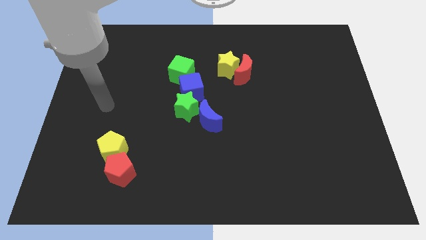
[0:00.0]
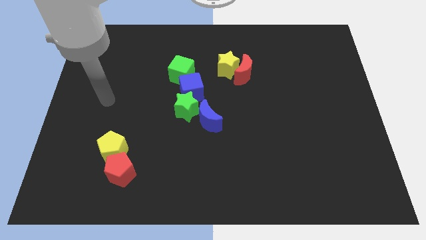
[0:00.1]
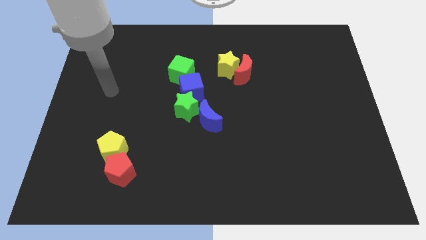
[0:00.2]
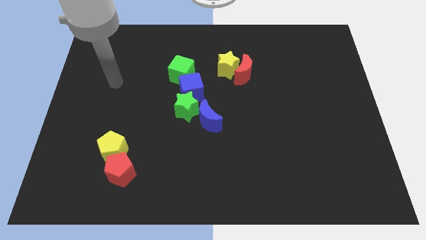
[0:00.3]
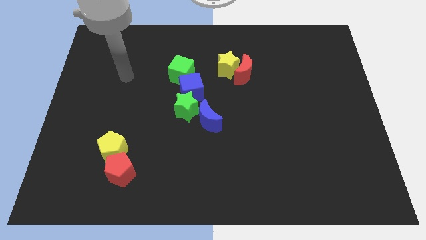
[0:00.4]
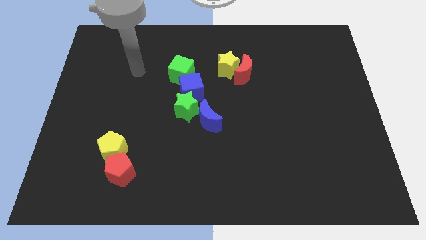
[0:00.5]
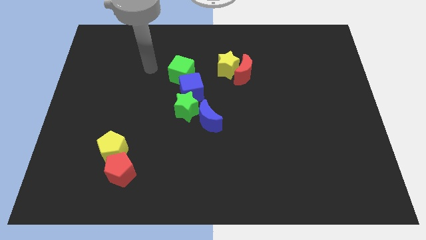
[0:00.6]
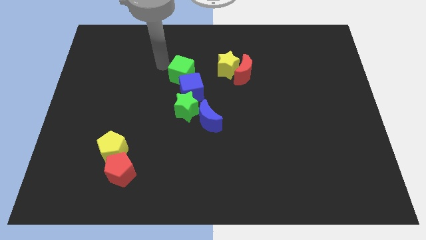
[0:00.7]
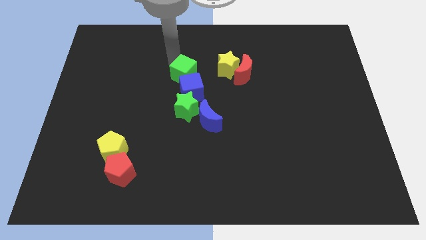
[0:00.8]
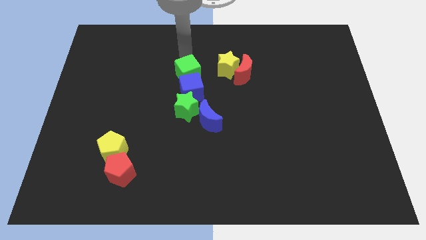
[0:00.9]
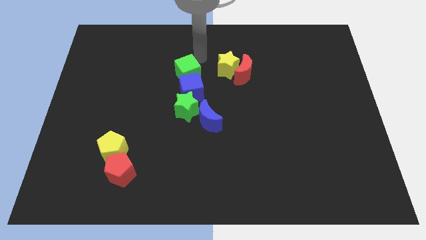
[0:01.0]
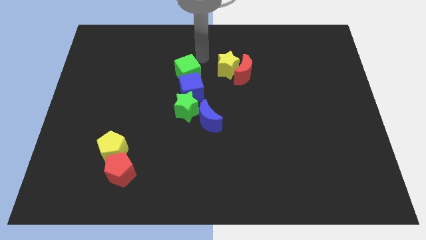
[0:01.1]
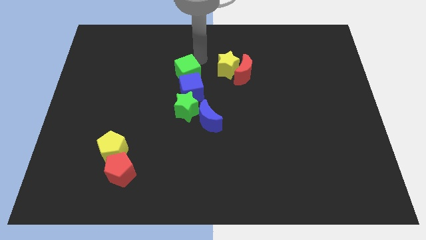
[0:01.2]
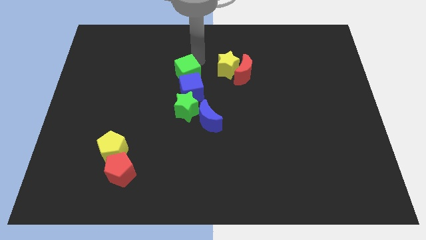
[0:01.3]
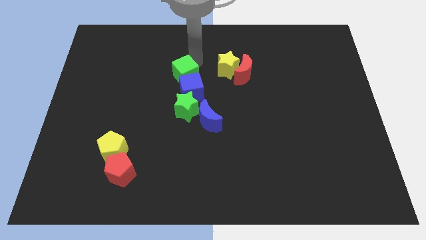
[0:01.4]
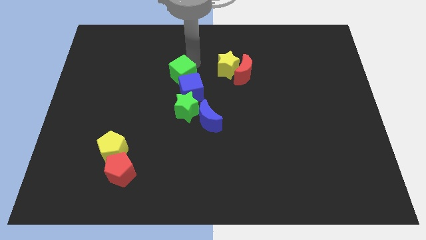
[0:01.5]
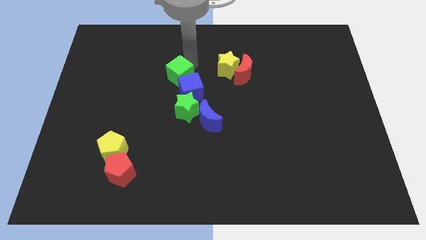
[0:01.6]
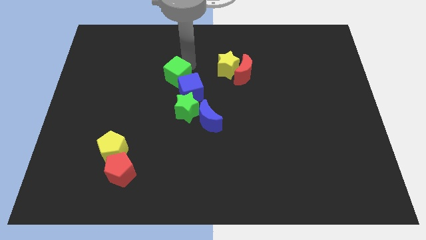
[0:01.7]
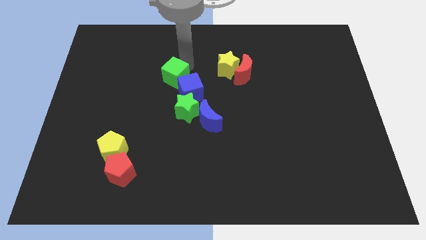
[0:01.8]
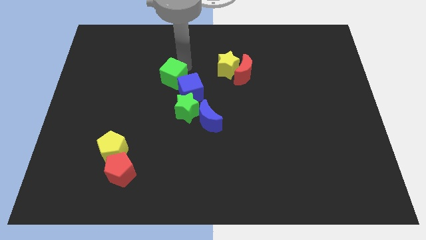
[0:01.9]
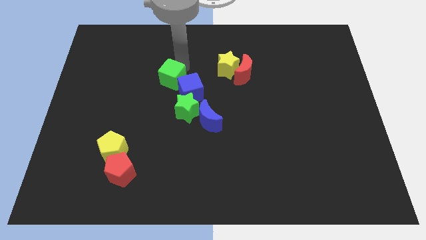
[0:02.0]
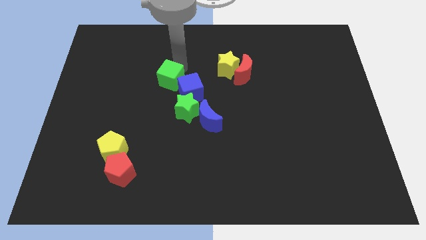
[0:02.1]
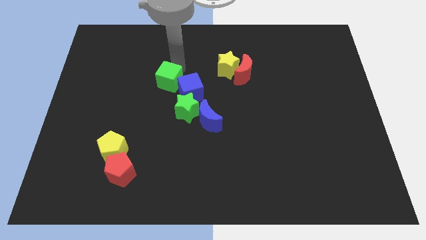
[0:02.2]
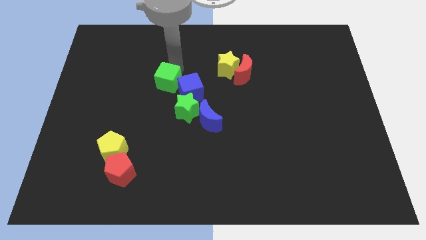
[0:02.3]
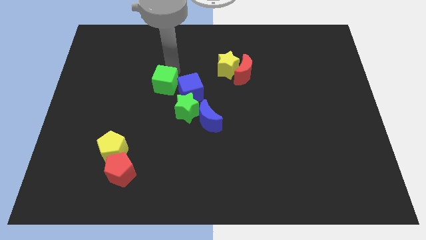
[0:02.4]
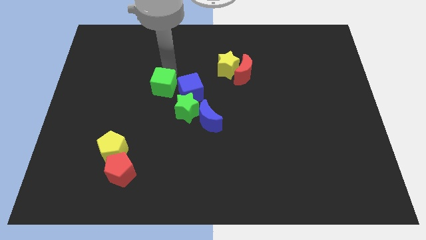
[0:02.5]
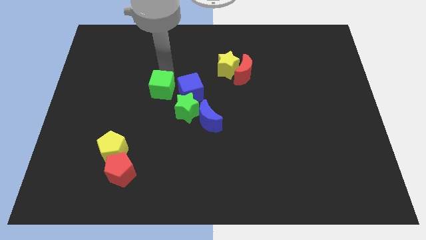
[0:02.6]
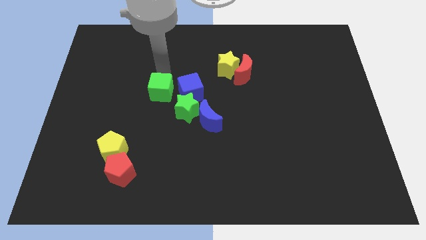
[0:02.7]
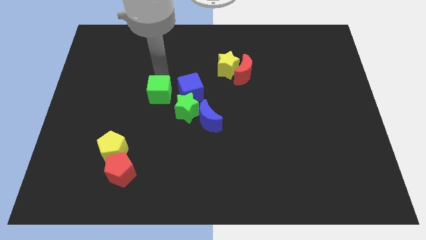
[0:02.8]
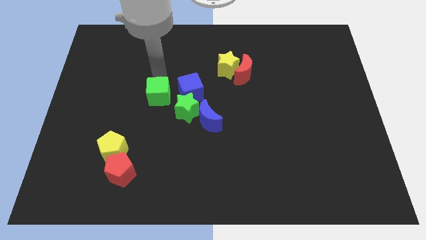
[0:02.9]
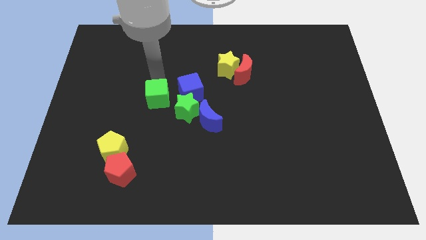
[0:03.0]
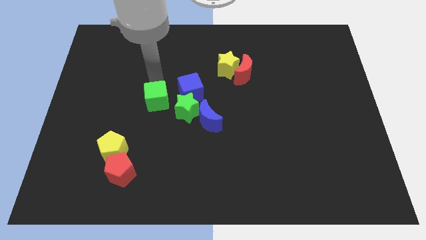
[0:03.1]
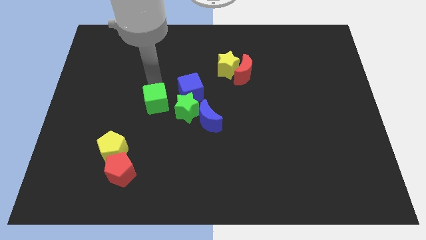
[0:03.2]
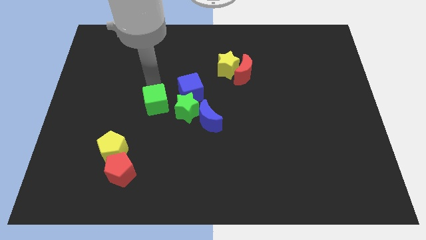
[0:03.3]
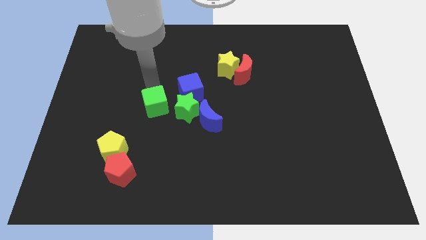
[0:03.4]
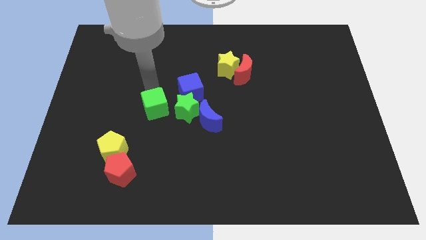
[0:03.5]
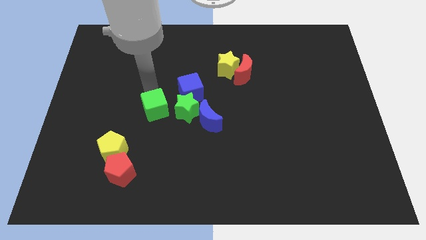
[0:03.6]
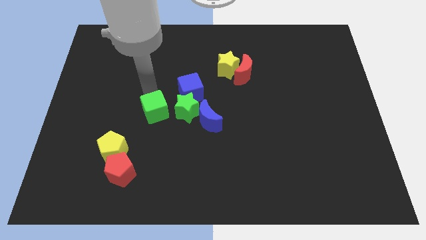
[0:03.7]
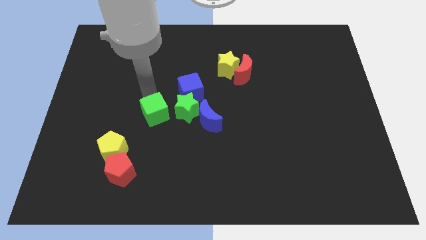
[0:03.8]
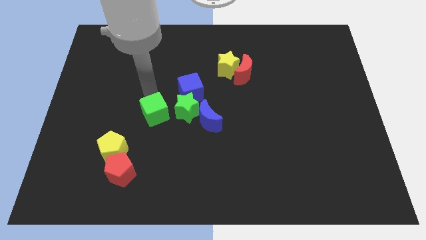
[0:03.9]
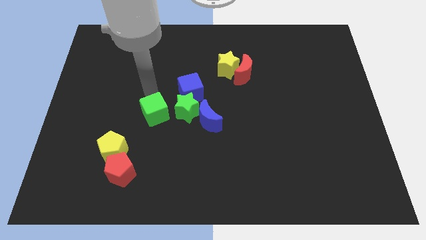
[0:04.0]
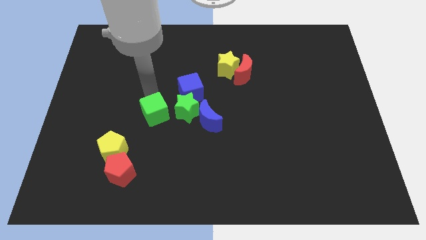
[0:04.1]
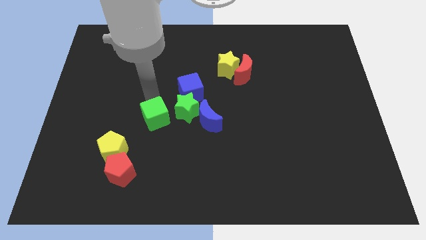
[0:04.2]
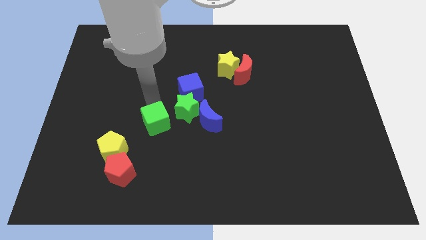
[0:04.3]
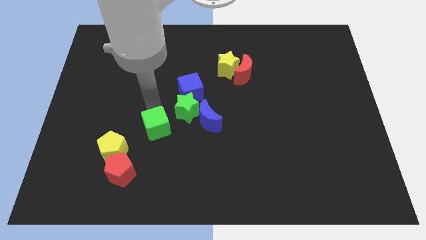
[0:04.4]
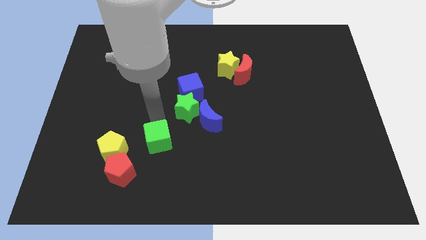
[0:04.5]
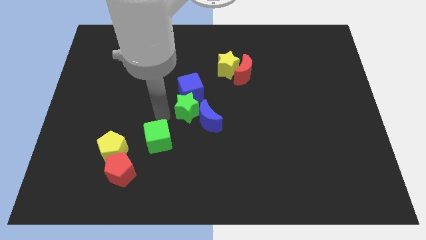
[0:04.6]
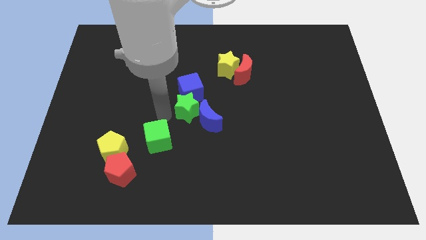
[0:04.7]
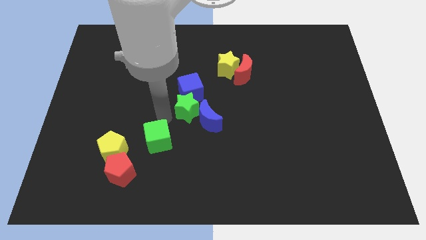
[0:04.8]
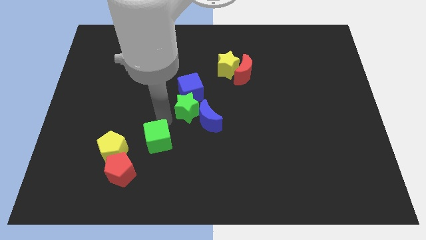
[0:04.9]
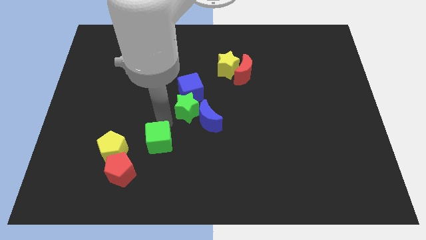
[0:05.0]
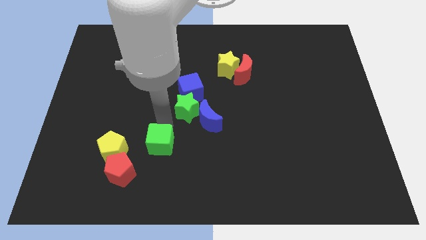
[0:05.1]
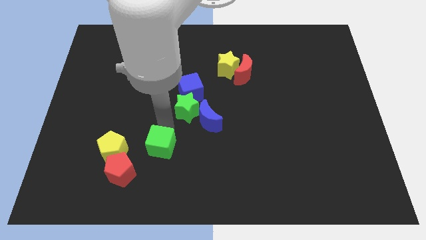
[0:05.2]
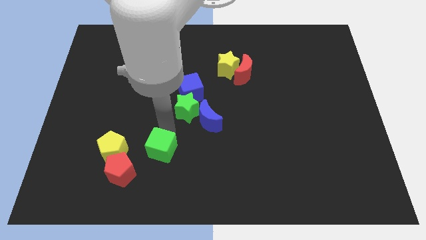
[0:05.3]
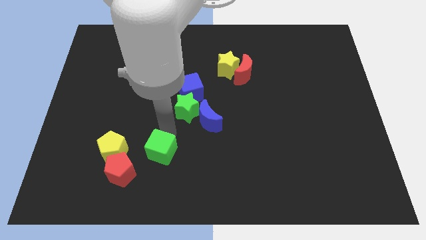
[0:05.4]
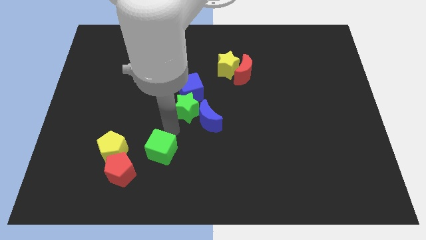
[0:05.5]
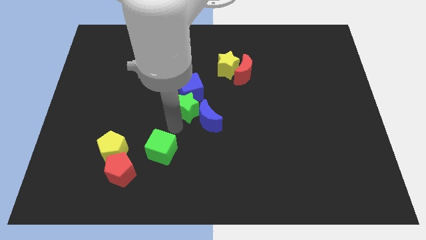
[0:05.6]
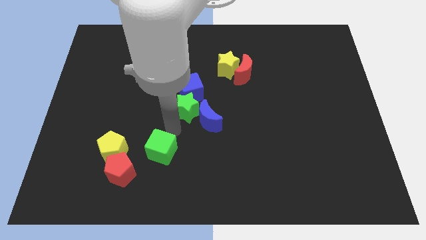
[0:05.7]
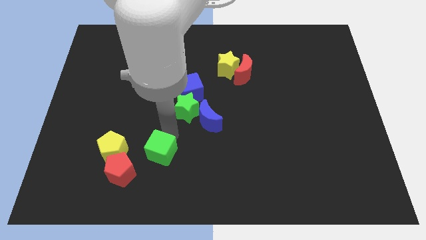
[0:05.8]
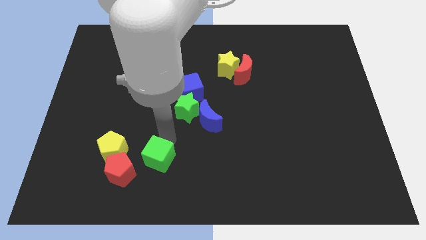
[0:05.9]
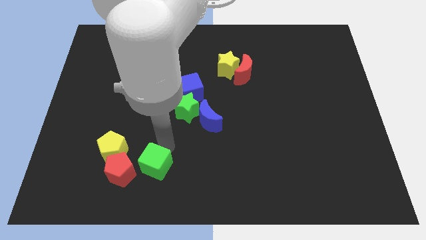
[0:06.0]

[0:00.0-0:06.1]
push the green cube diagonally down and to the right of the yellow pentagon

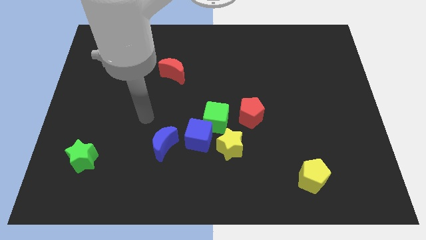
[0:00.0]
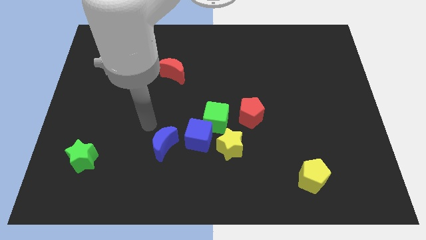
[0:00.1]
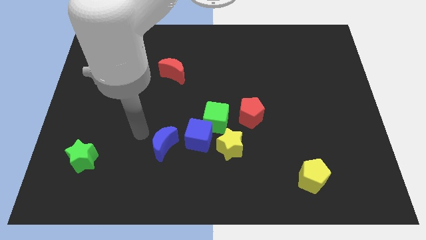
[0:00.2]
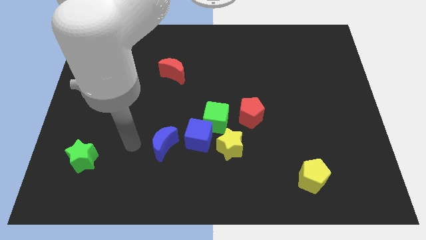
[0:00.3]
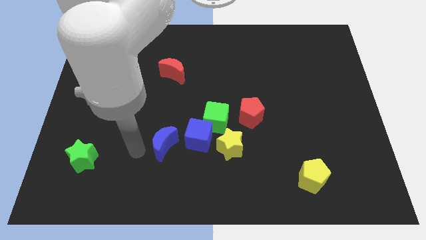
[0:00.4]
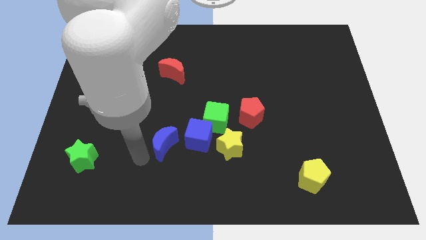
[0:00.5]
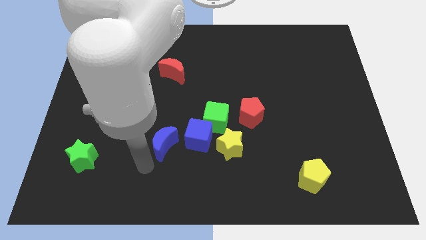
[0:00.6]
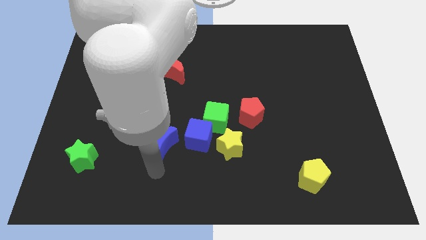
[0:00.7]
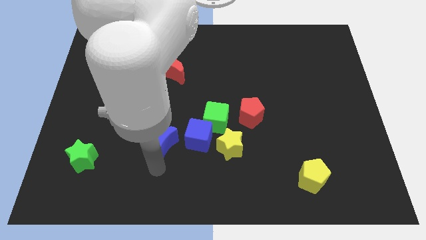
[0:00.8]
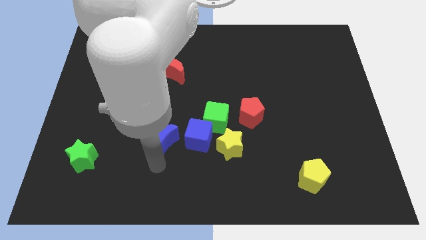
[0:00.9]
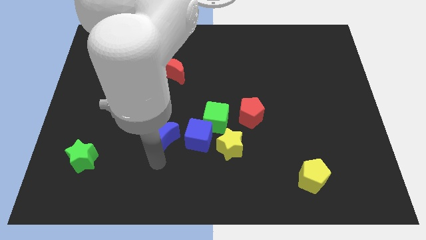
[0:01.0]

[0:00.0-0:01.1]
put the blue moon to the left side of the green cube

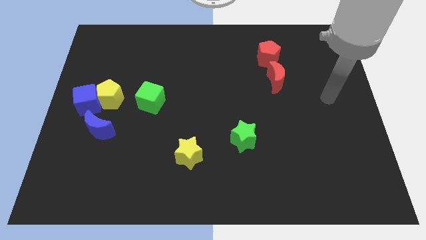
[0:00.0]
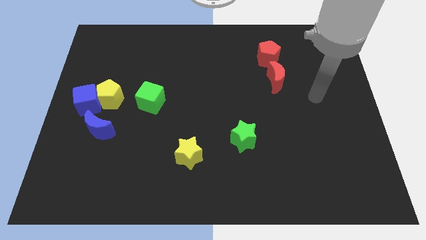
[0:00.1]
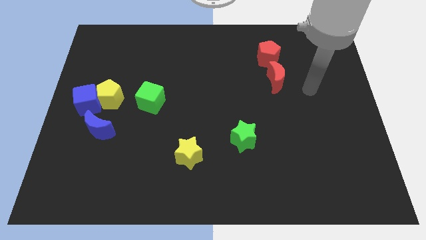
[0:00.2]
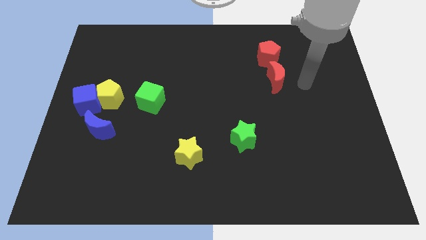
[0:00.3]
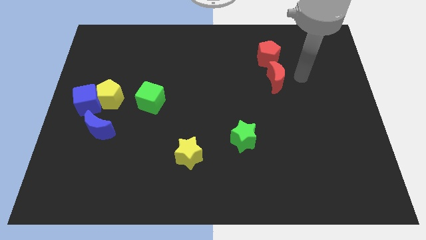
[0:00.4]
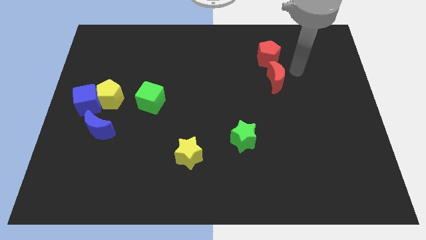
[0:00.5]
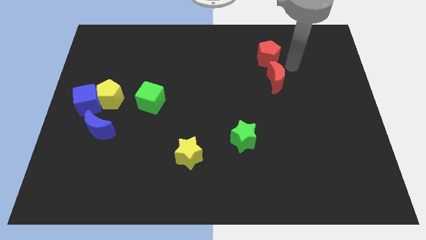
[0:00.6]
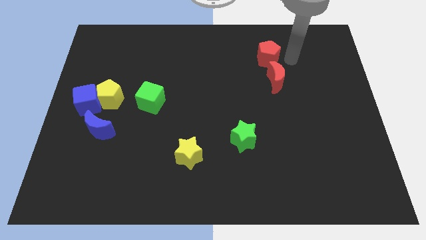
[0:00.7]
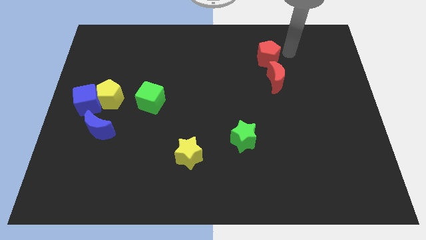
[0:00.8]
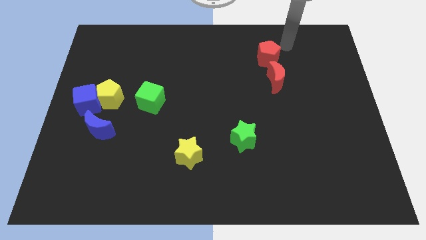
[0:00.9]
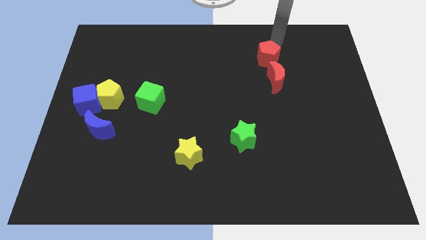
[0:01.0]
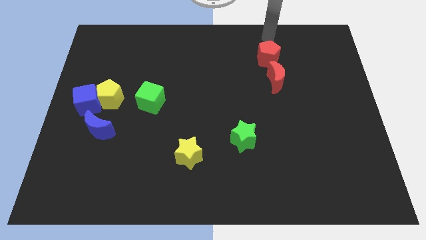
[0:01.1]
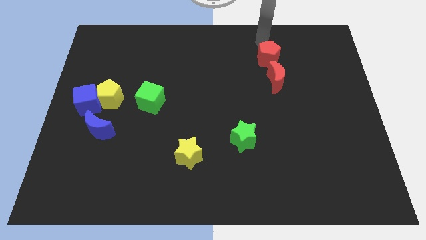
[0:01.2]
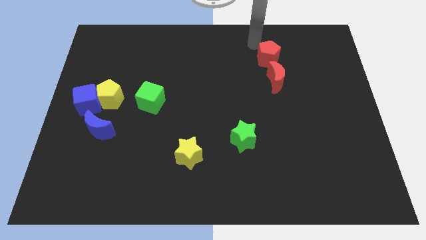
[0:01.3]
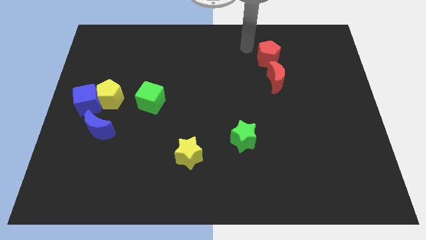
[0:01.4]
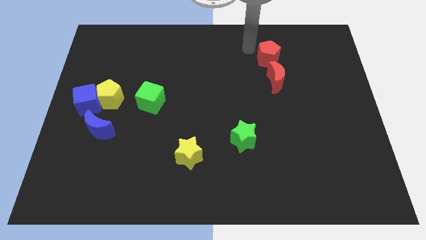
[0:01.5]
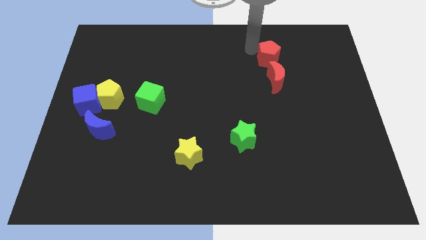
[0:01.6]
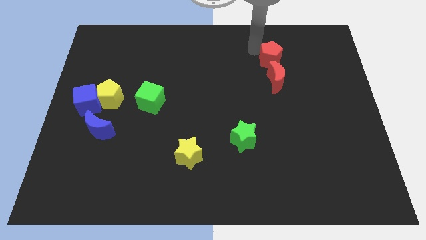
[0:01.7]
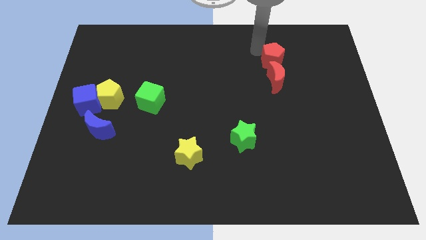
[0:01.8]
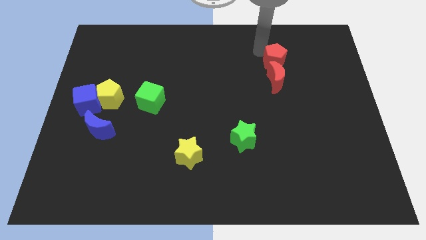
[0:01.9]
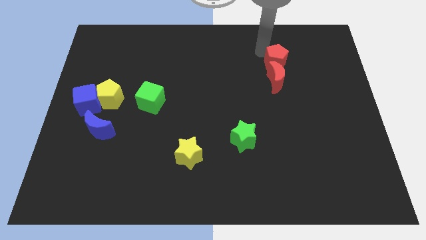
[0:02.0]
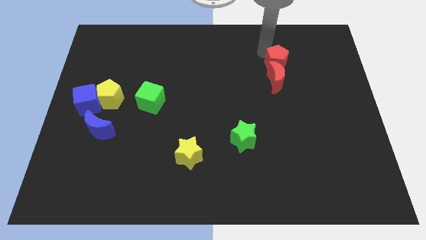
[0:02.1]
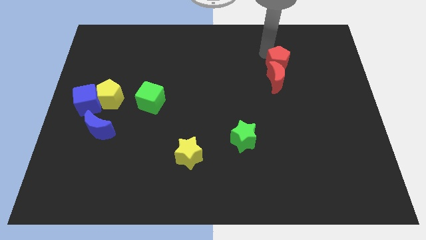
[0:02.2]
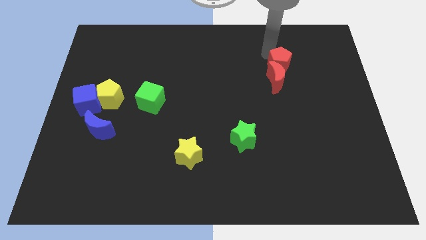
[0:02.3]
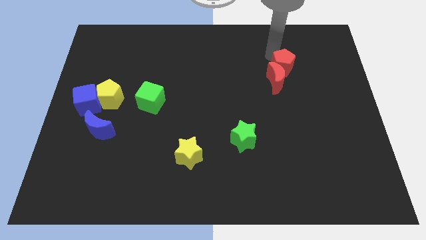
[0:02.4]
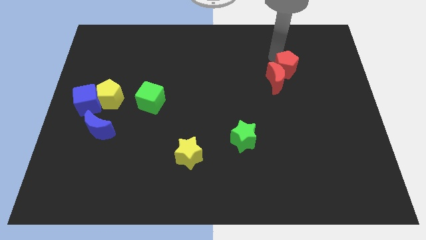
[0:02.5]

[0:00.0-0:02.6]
move the red pentagon to the right side of the red moon
